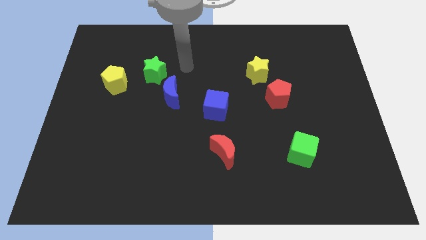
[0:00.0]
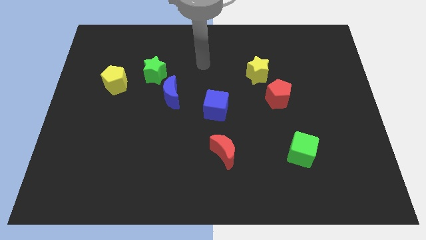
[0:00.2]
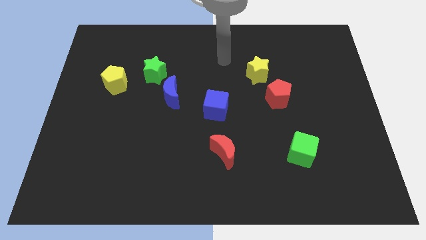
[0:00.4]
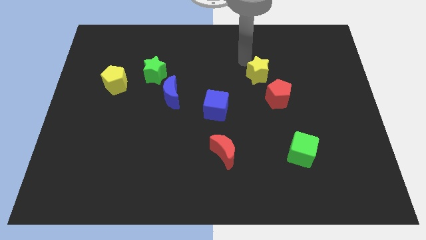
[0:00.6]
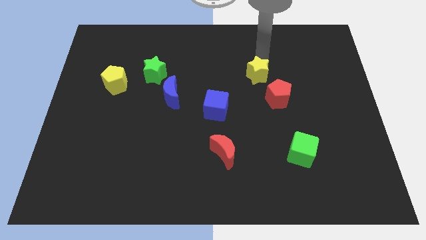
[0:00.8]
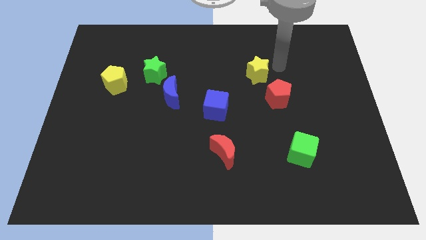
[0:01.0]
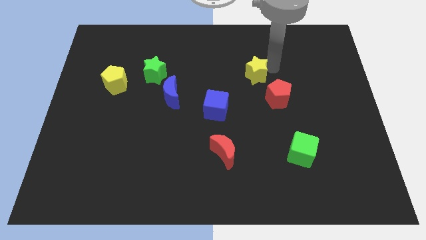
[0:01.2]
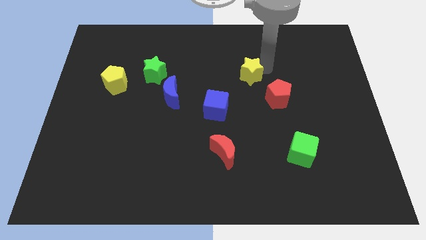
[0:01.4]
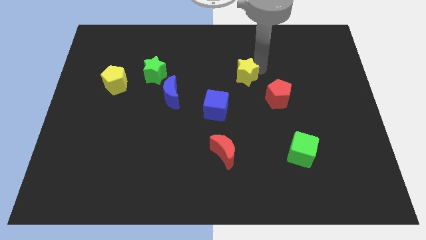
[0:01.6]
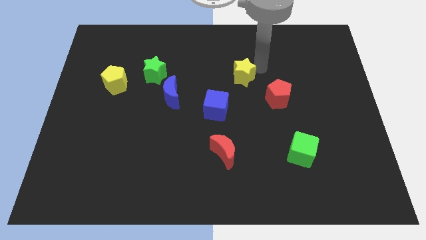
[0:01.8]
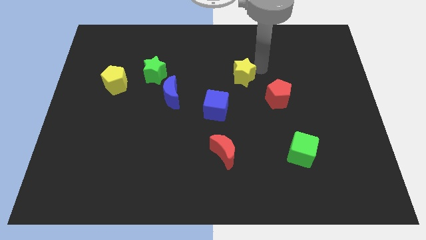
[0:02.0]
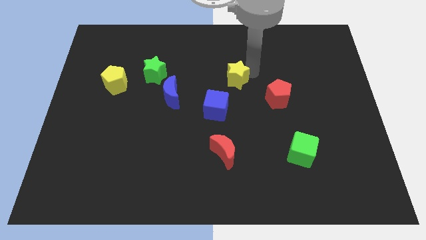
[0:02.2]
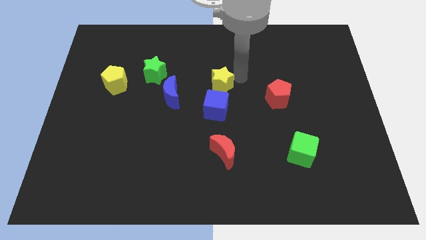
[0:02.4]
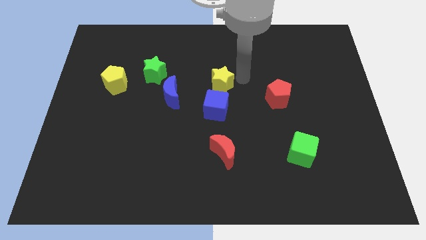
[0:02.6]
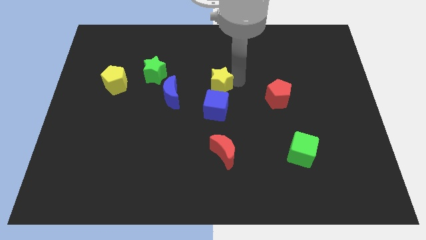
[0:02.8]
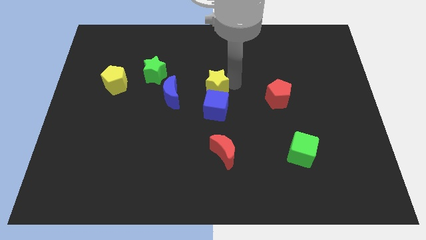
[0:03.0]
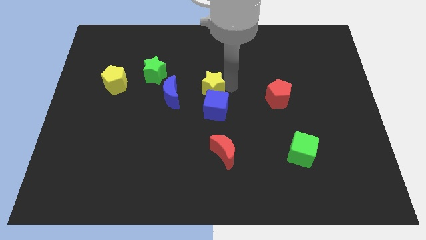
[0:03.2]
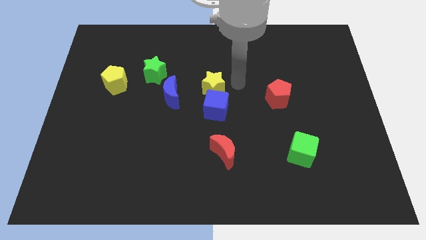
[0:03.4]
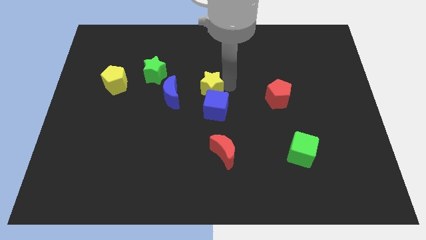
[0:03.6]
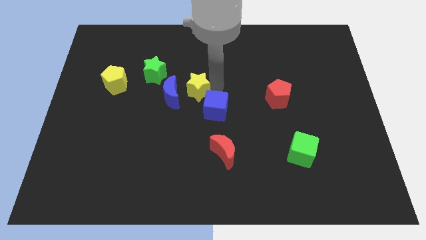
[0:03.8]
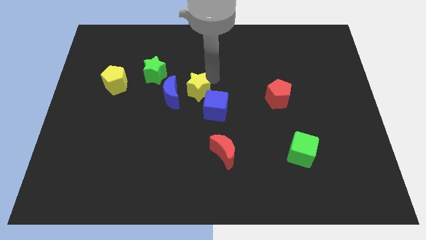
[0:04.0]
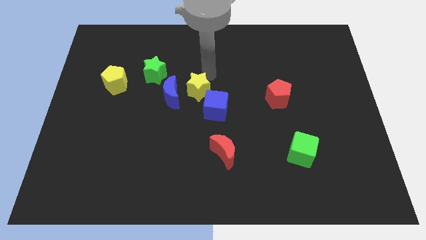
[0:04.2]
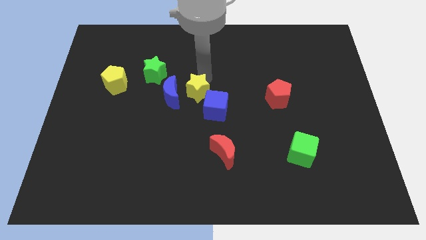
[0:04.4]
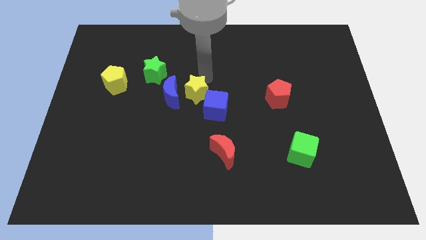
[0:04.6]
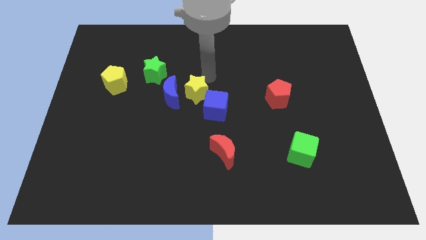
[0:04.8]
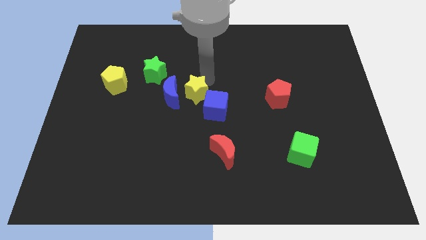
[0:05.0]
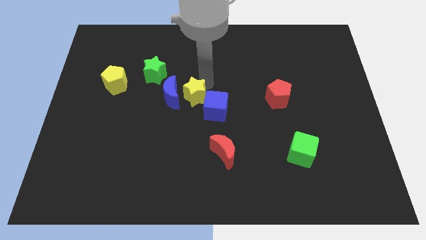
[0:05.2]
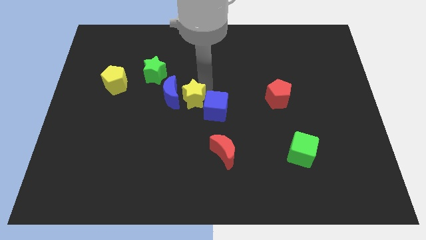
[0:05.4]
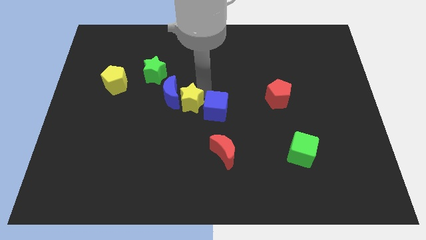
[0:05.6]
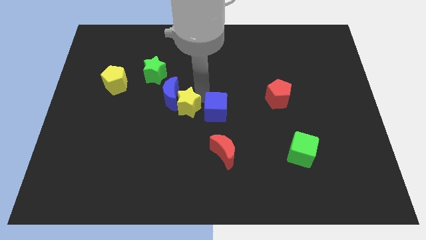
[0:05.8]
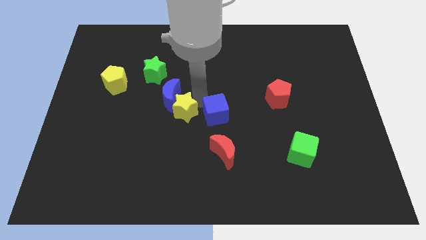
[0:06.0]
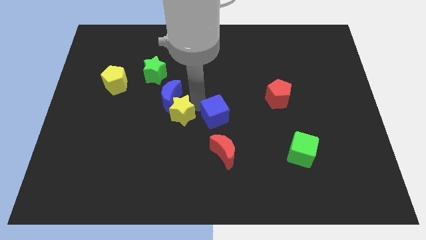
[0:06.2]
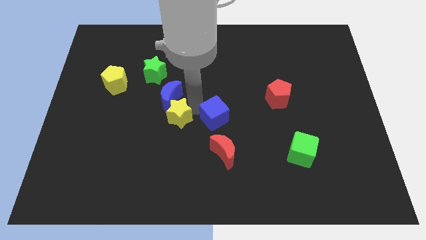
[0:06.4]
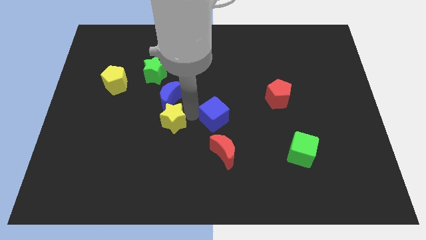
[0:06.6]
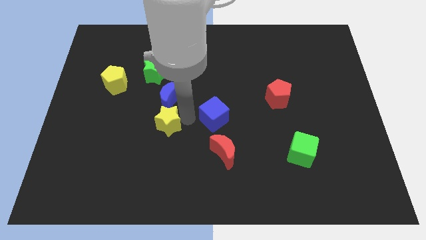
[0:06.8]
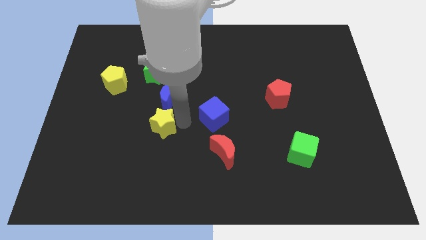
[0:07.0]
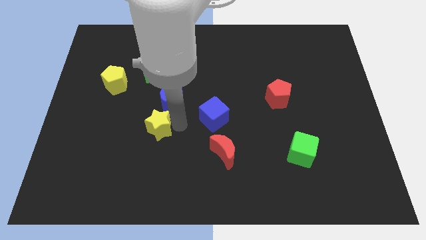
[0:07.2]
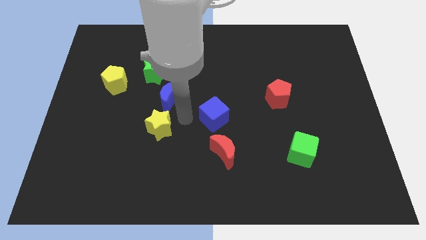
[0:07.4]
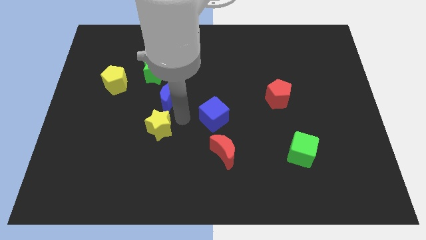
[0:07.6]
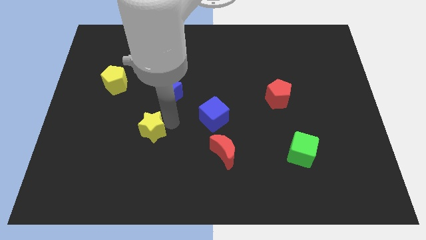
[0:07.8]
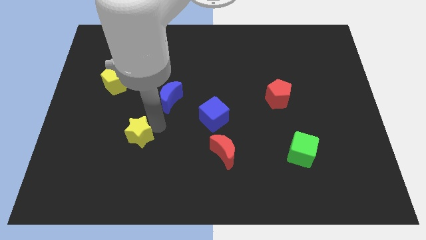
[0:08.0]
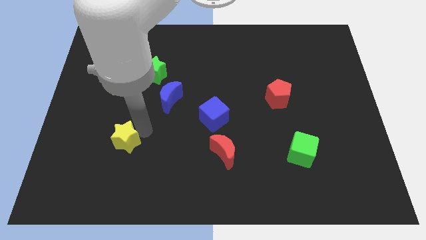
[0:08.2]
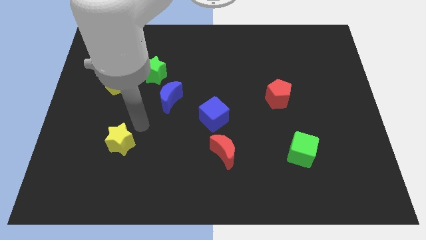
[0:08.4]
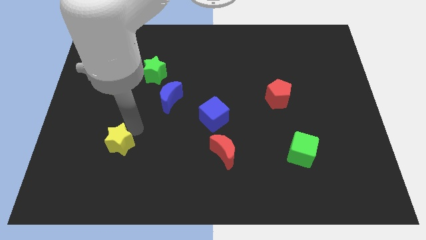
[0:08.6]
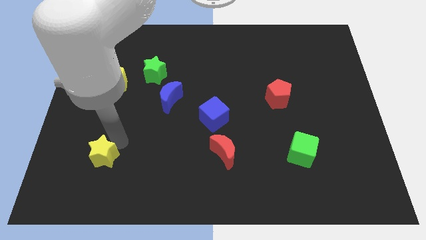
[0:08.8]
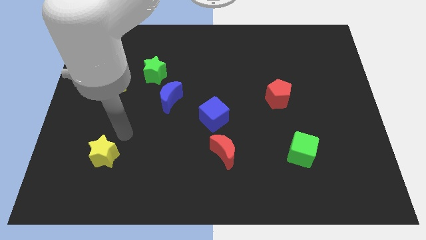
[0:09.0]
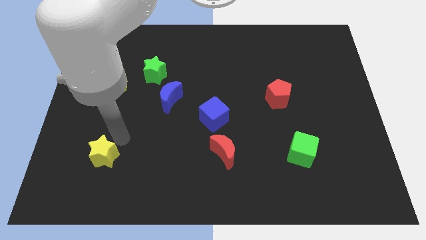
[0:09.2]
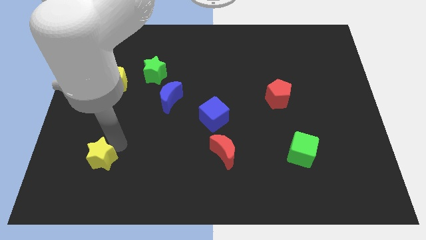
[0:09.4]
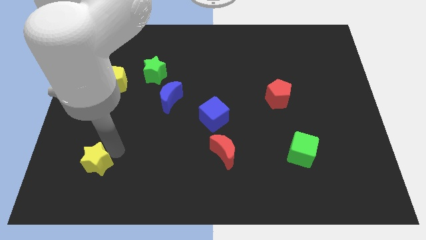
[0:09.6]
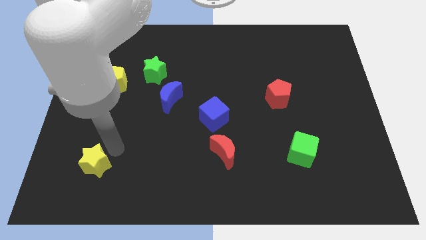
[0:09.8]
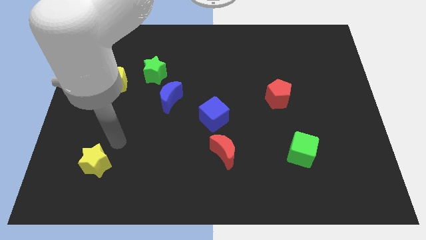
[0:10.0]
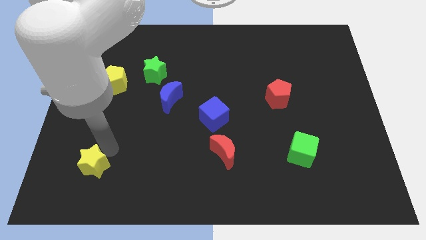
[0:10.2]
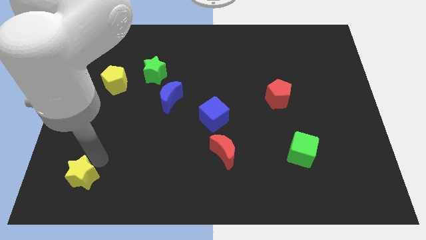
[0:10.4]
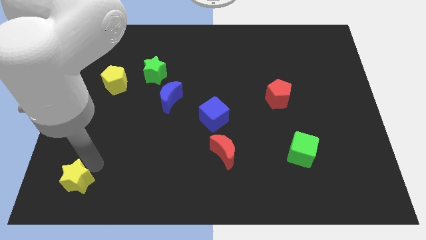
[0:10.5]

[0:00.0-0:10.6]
put the yellow star to the bottom left corner
